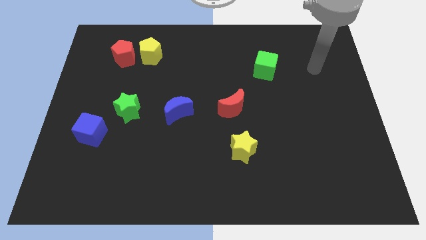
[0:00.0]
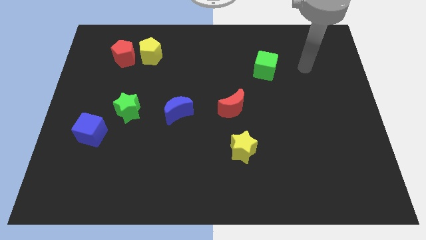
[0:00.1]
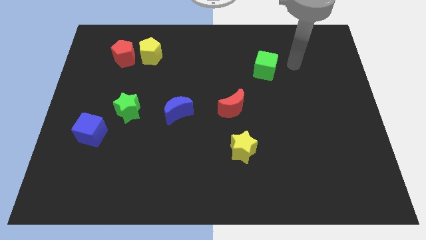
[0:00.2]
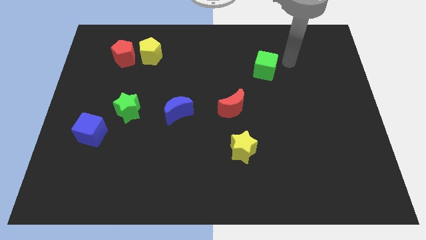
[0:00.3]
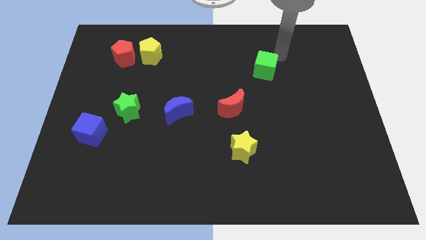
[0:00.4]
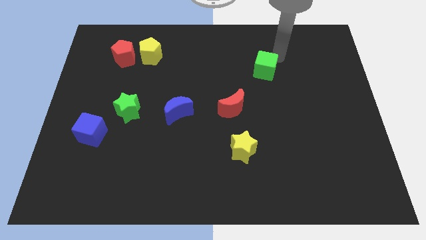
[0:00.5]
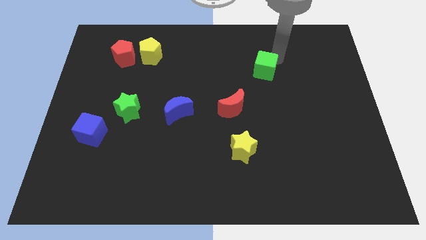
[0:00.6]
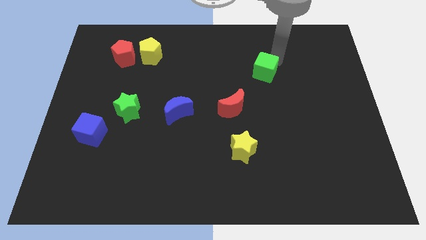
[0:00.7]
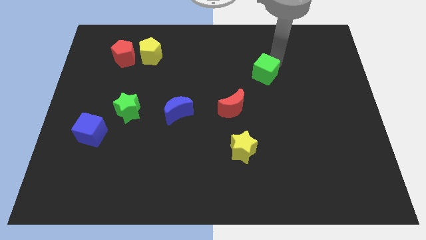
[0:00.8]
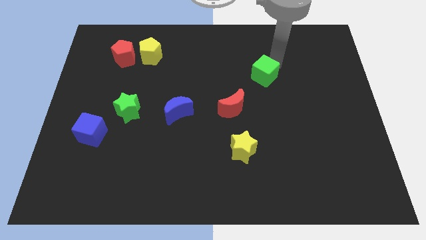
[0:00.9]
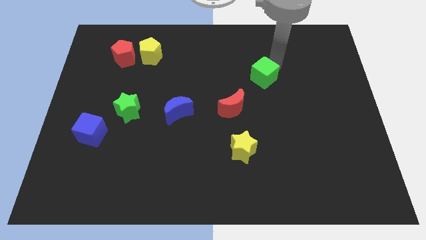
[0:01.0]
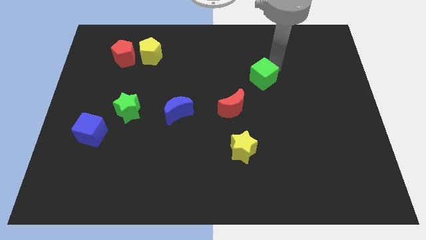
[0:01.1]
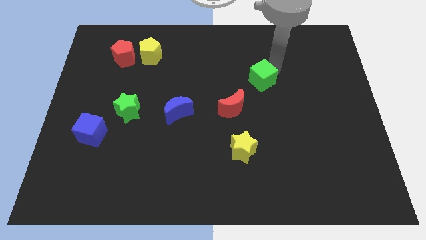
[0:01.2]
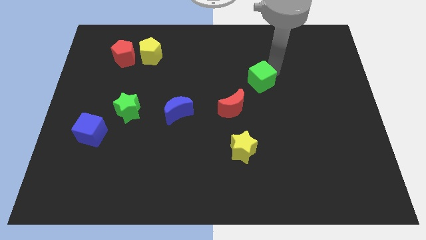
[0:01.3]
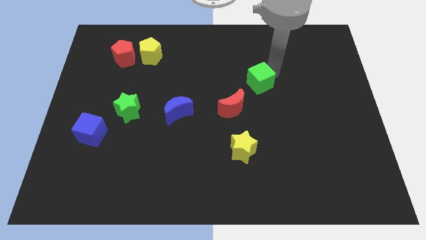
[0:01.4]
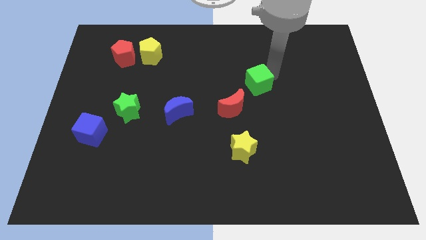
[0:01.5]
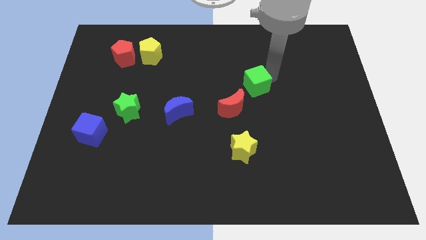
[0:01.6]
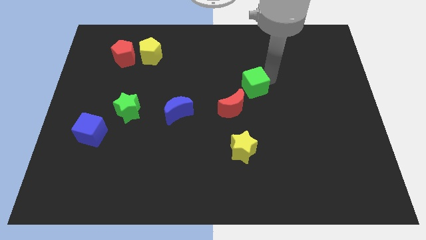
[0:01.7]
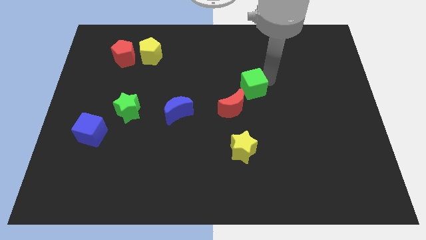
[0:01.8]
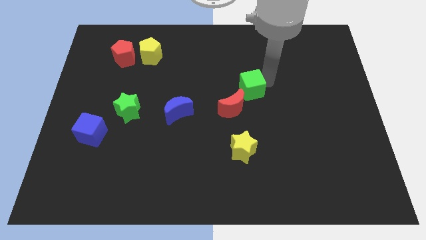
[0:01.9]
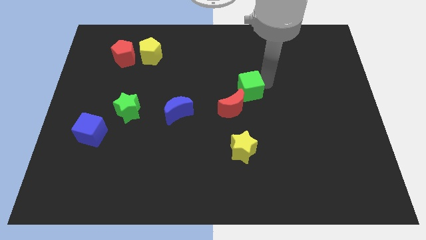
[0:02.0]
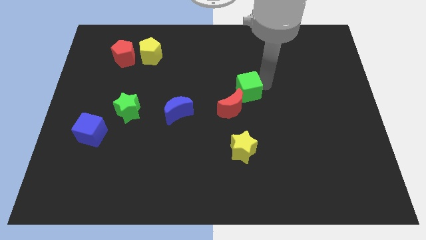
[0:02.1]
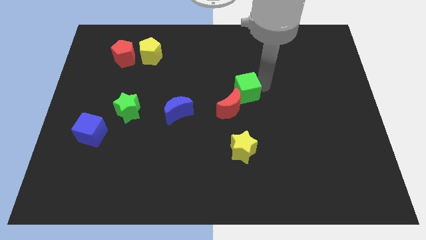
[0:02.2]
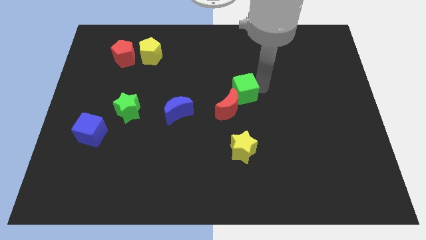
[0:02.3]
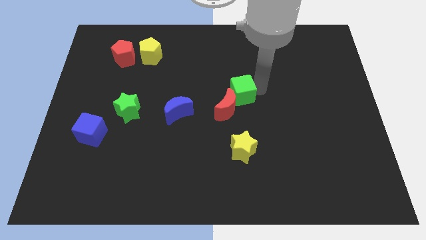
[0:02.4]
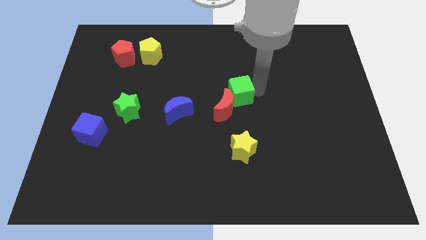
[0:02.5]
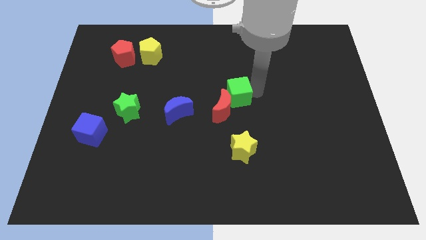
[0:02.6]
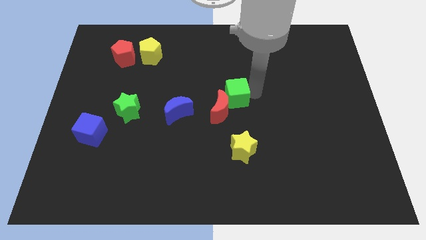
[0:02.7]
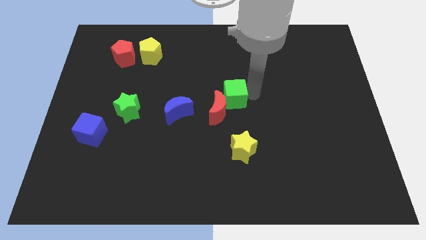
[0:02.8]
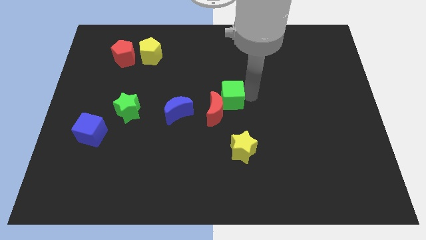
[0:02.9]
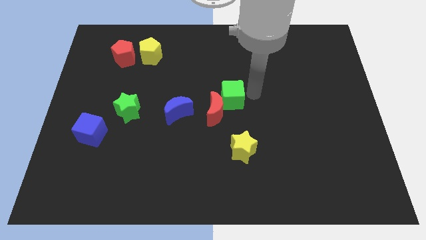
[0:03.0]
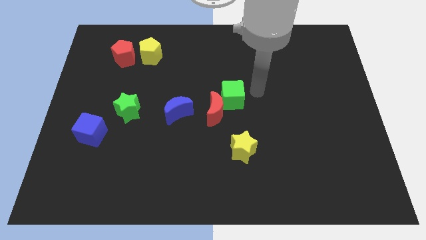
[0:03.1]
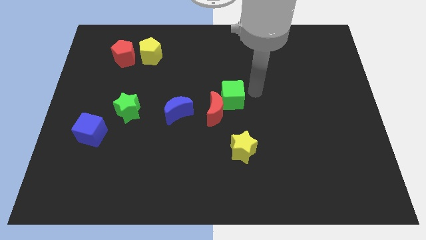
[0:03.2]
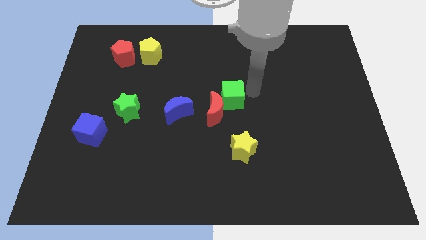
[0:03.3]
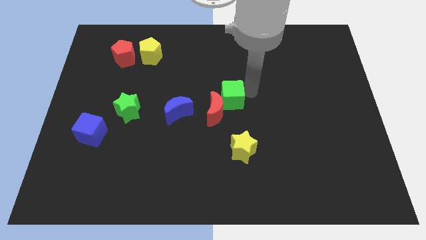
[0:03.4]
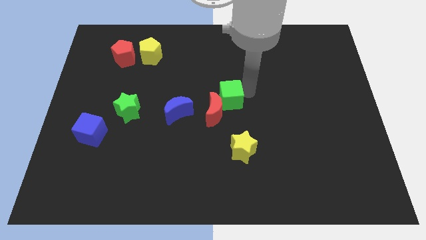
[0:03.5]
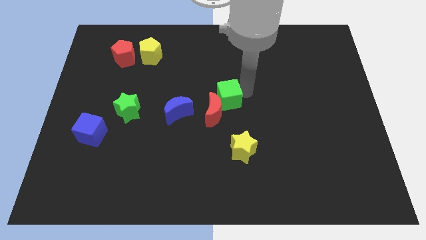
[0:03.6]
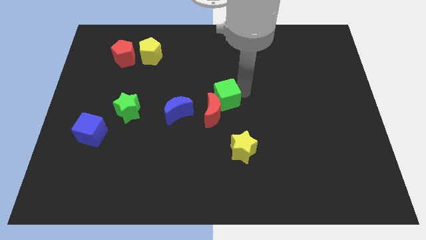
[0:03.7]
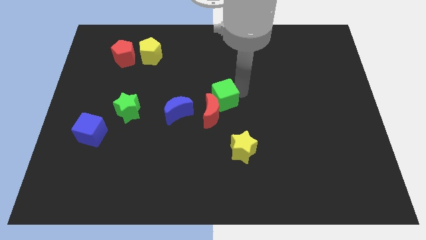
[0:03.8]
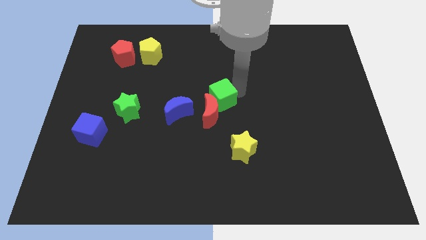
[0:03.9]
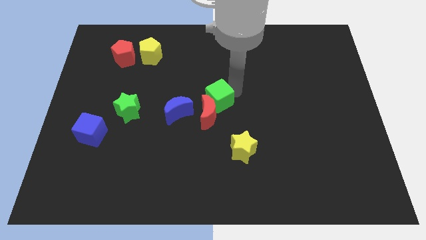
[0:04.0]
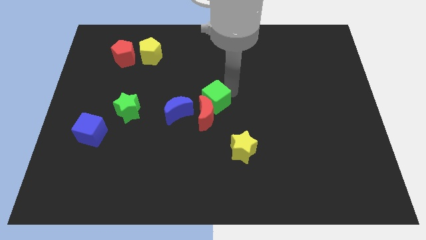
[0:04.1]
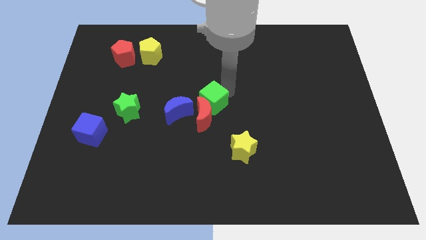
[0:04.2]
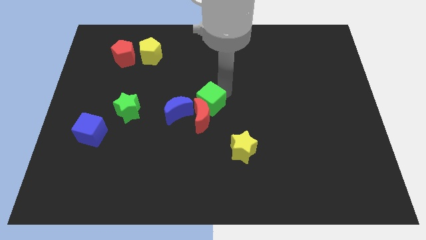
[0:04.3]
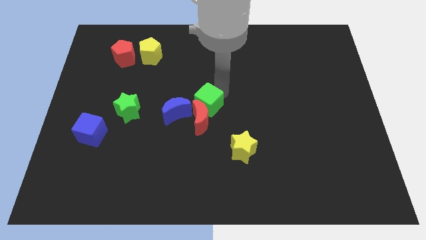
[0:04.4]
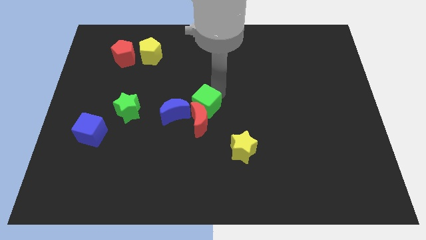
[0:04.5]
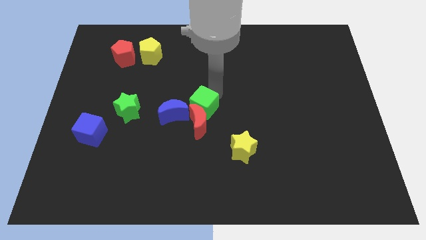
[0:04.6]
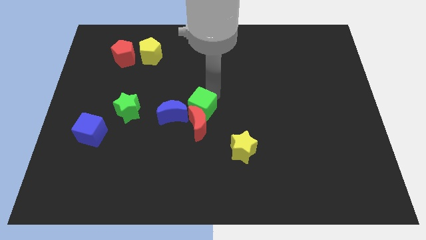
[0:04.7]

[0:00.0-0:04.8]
move the green cube downwards and to the left

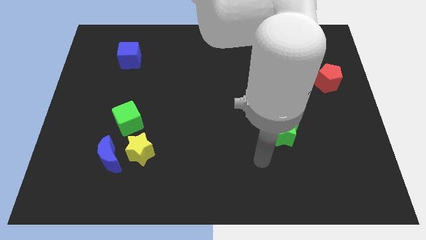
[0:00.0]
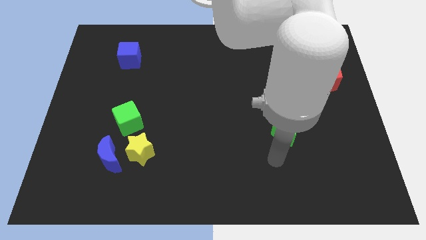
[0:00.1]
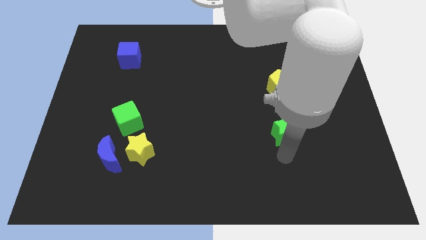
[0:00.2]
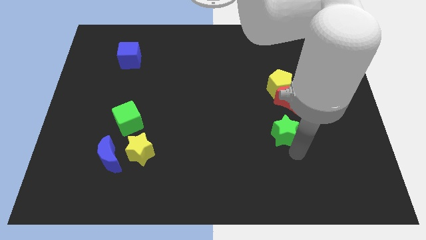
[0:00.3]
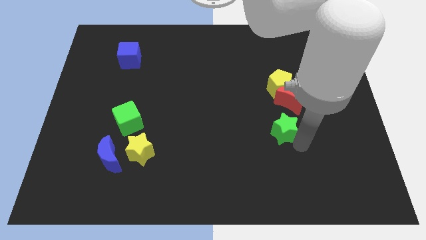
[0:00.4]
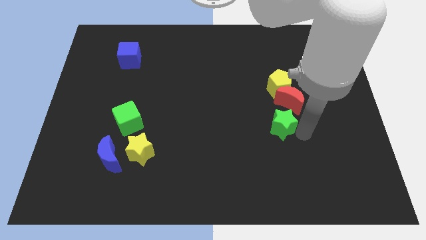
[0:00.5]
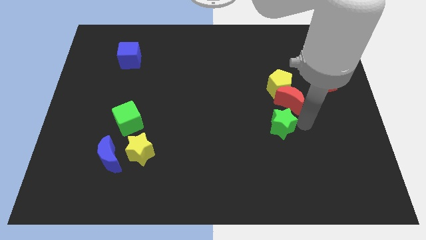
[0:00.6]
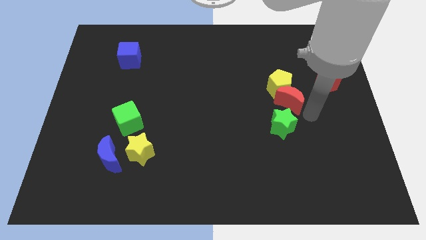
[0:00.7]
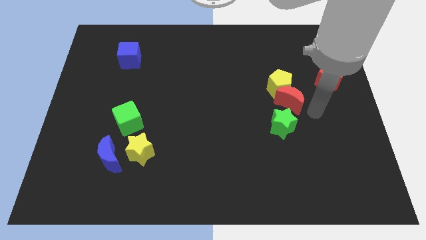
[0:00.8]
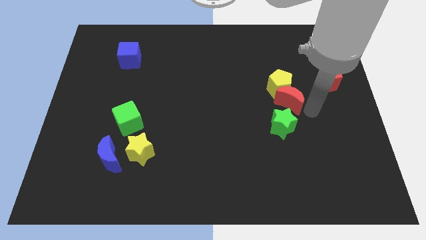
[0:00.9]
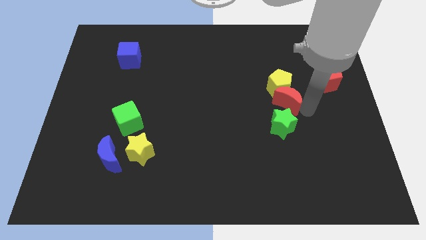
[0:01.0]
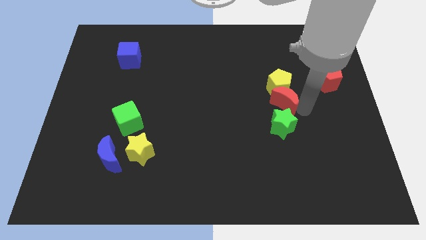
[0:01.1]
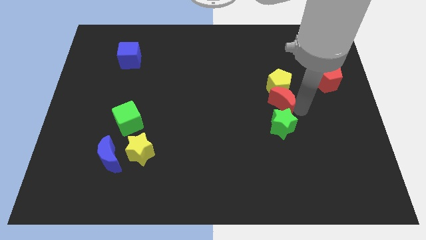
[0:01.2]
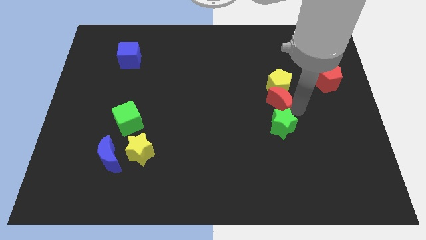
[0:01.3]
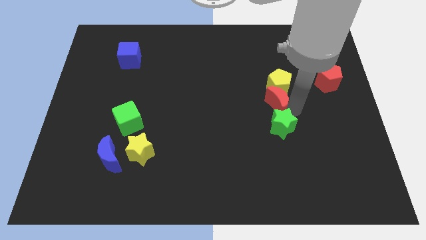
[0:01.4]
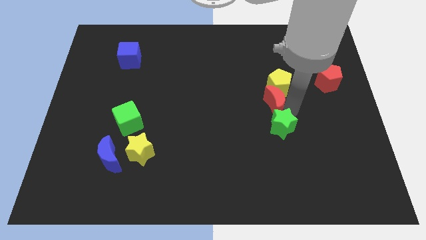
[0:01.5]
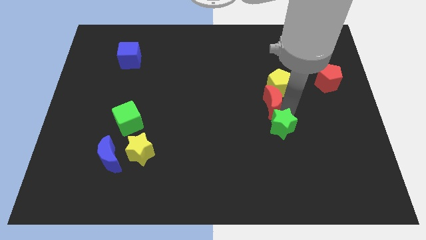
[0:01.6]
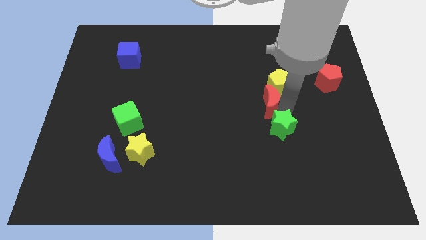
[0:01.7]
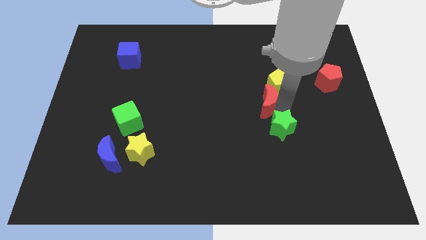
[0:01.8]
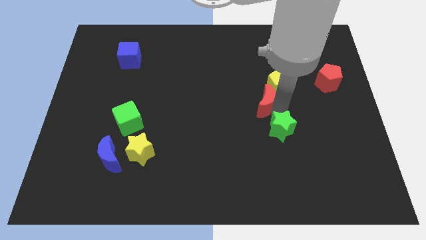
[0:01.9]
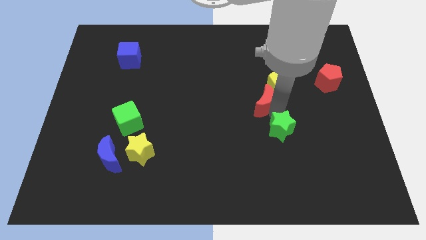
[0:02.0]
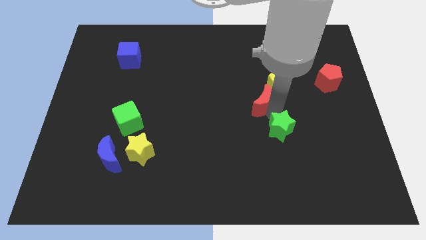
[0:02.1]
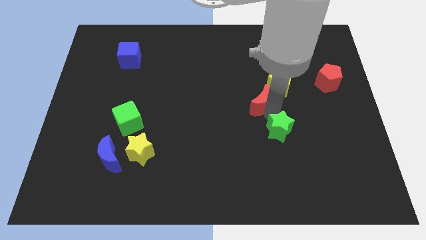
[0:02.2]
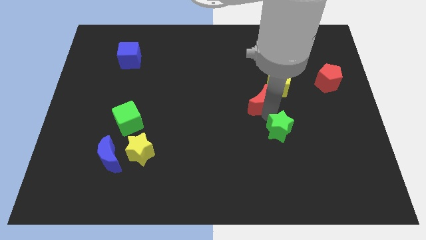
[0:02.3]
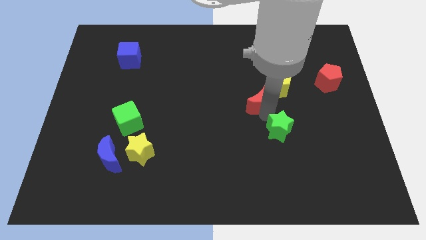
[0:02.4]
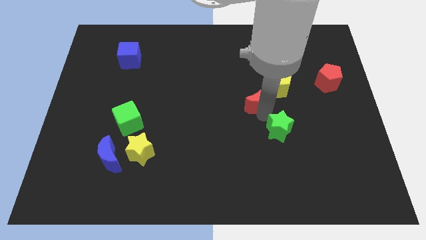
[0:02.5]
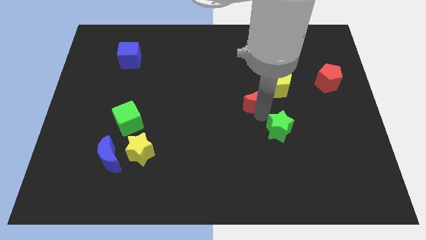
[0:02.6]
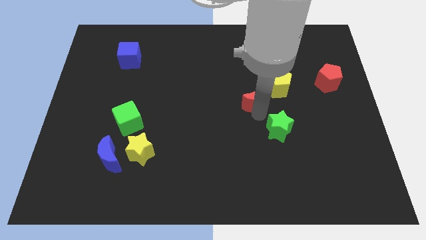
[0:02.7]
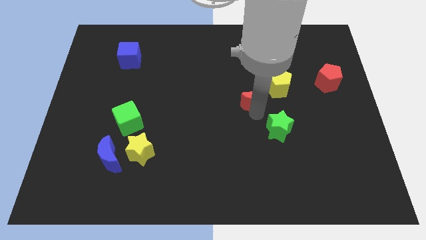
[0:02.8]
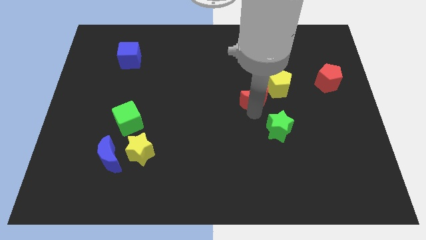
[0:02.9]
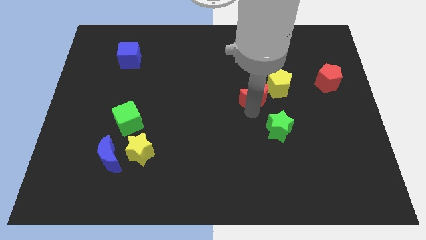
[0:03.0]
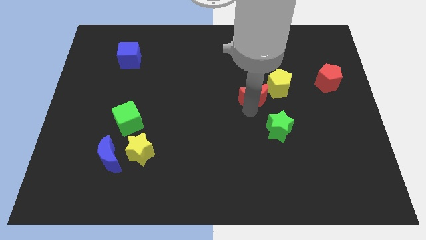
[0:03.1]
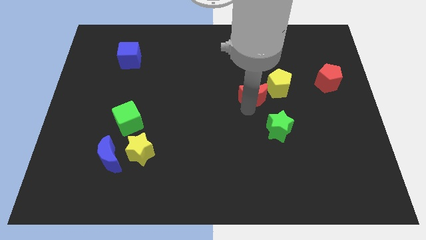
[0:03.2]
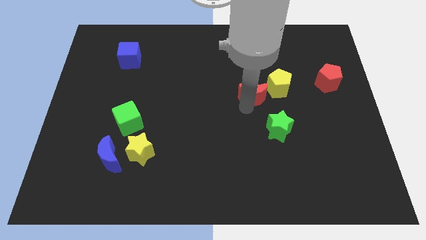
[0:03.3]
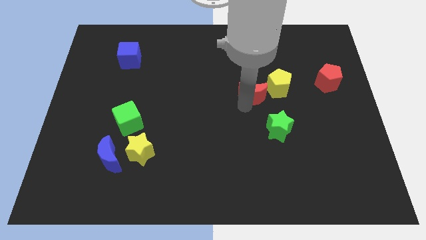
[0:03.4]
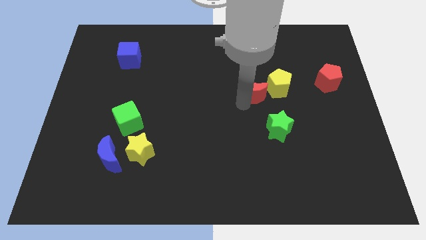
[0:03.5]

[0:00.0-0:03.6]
slide the red moon diagonally up and left somewhat
